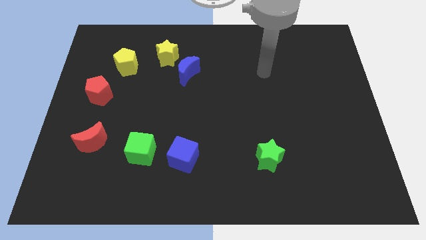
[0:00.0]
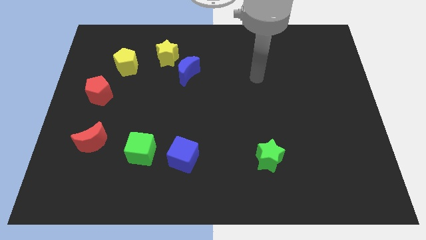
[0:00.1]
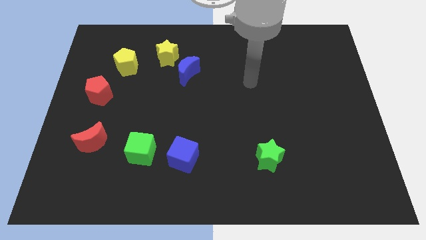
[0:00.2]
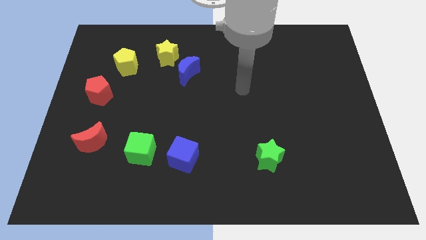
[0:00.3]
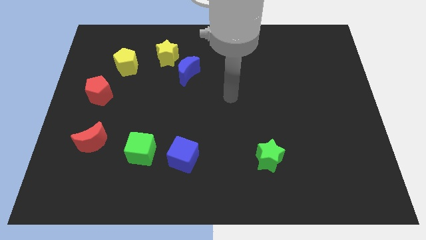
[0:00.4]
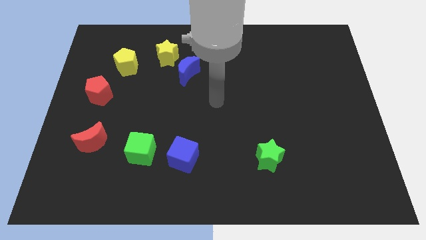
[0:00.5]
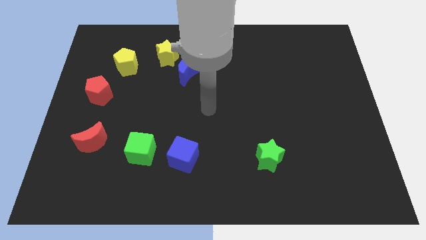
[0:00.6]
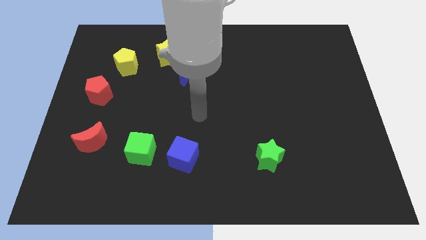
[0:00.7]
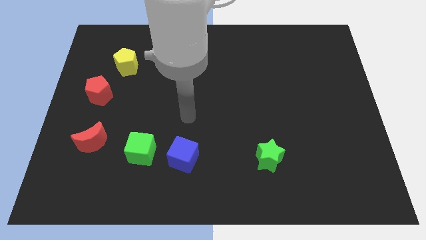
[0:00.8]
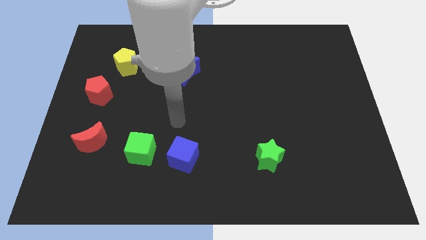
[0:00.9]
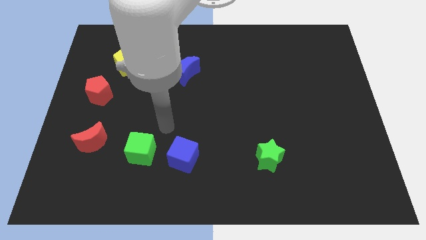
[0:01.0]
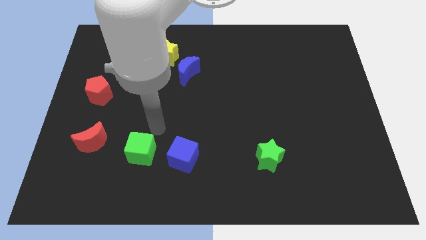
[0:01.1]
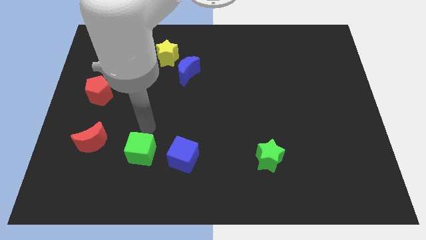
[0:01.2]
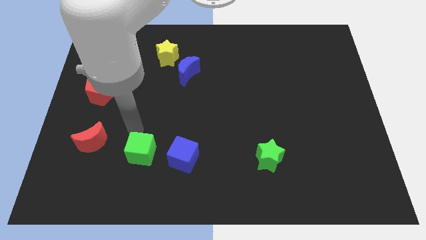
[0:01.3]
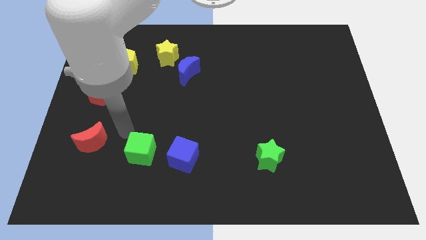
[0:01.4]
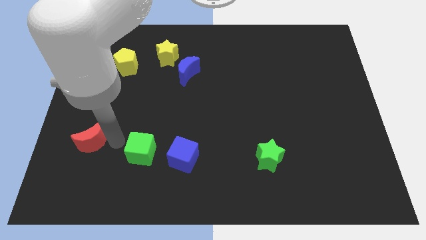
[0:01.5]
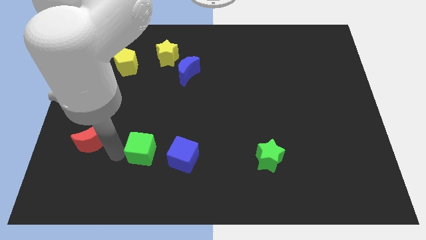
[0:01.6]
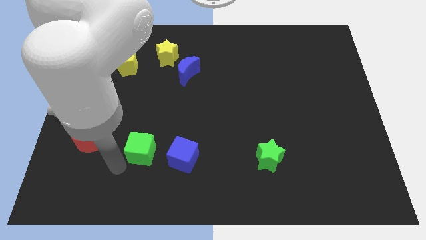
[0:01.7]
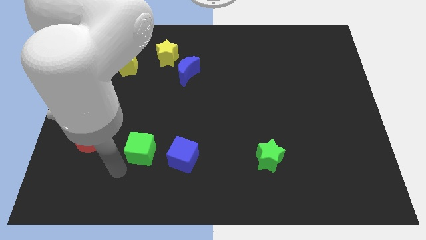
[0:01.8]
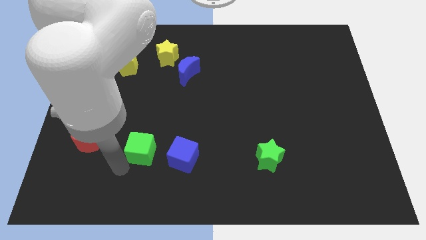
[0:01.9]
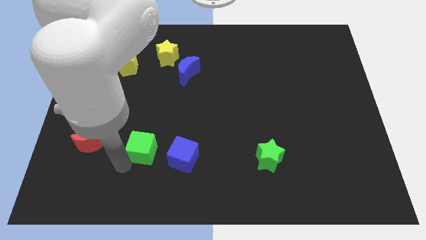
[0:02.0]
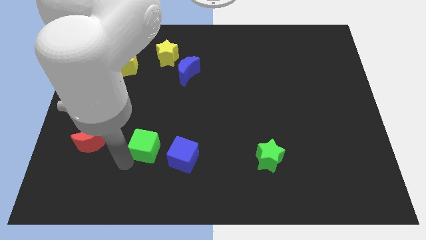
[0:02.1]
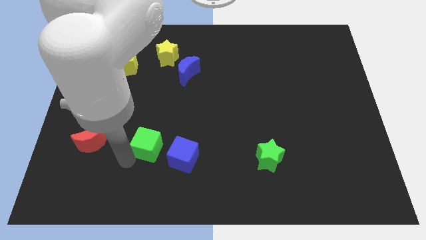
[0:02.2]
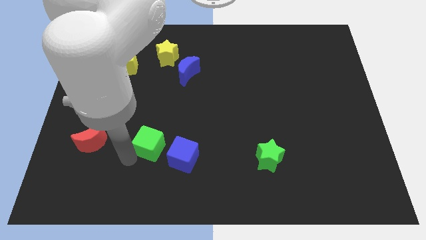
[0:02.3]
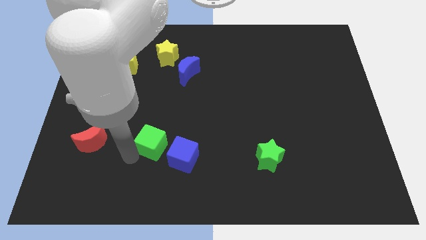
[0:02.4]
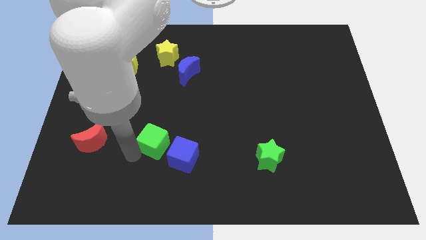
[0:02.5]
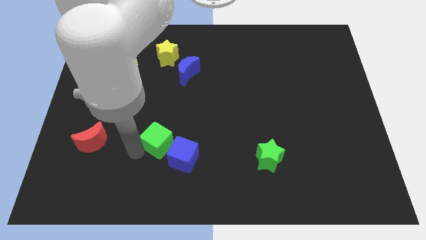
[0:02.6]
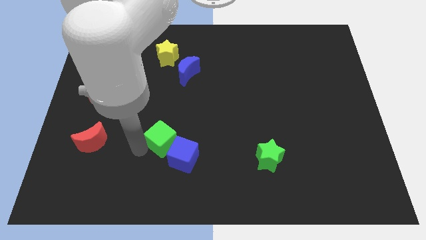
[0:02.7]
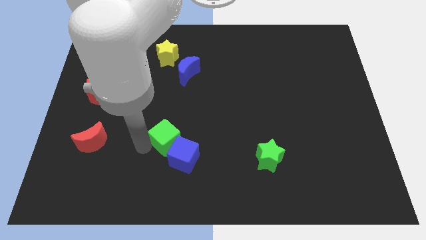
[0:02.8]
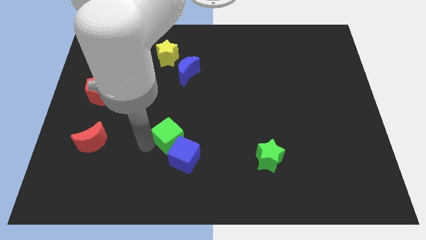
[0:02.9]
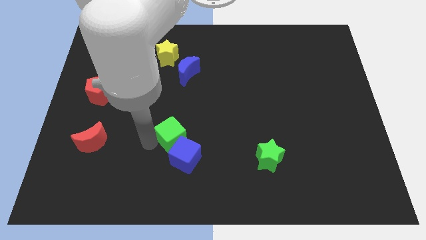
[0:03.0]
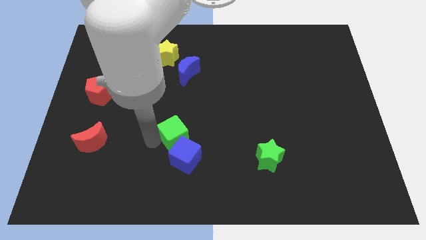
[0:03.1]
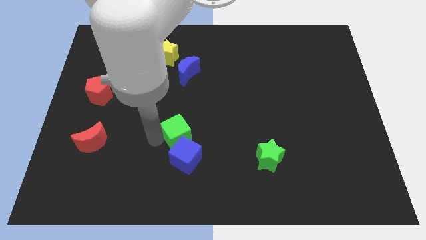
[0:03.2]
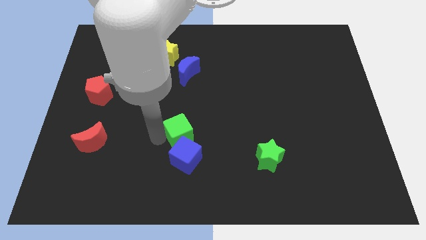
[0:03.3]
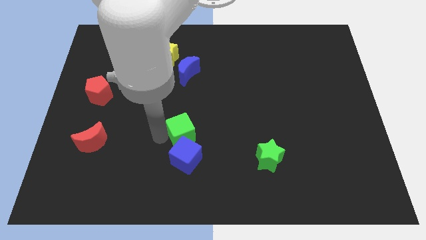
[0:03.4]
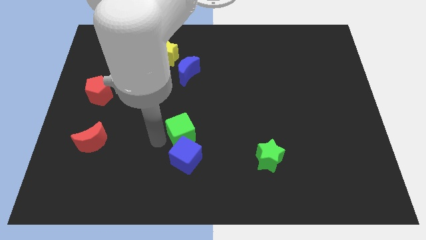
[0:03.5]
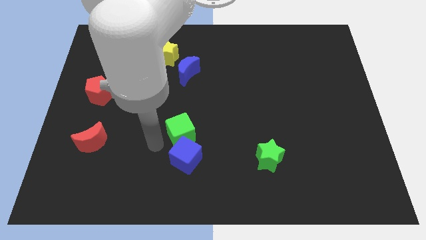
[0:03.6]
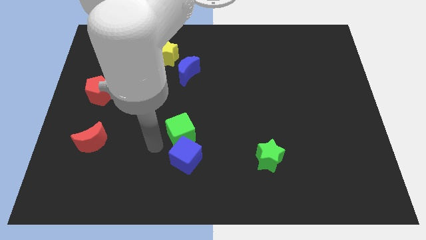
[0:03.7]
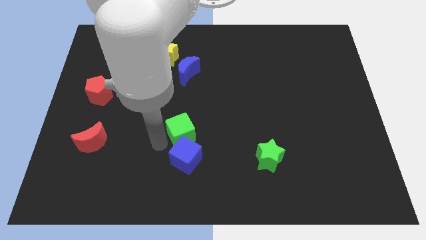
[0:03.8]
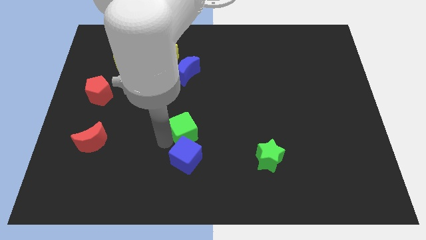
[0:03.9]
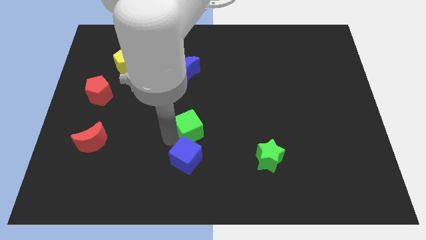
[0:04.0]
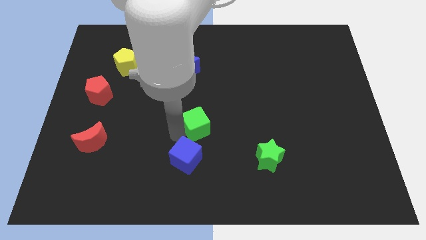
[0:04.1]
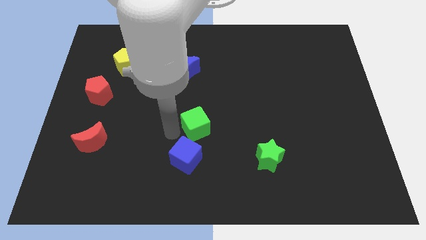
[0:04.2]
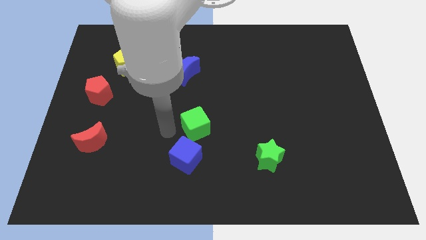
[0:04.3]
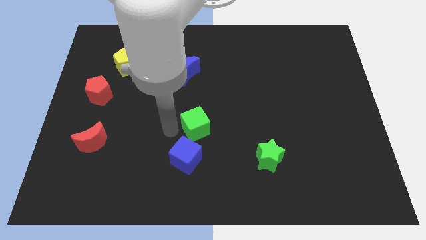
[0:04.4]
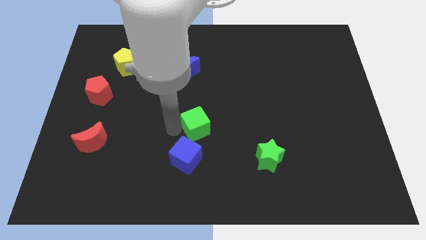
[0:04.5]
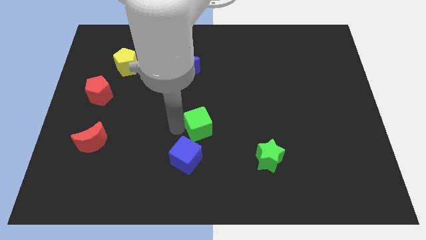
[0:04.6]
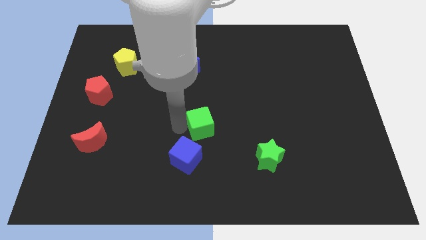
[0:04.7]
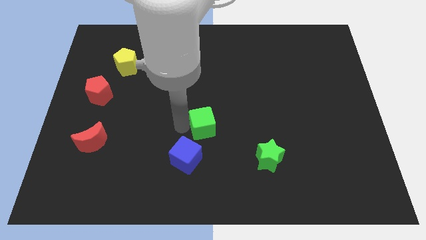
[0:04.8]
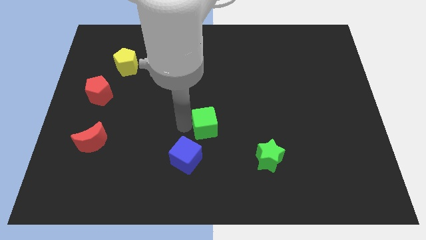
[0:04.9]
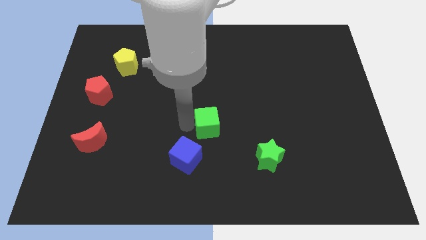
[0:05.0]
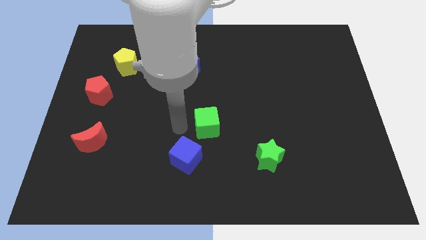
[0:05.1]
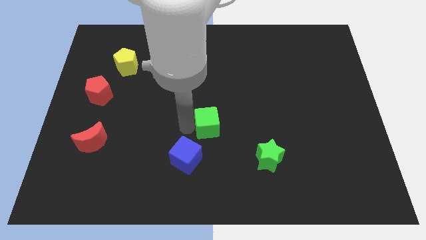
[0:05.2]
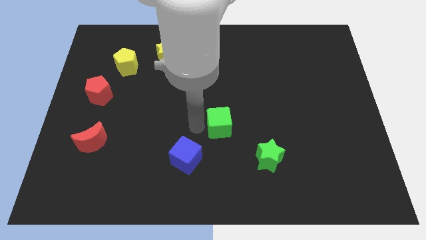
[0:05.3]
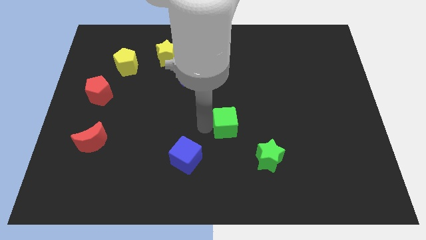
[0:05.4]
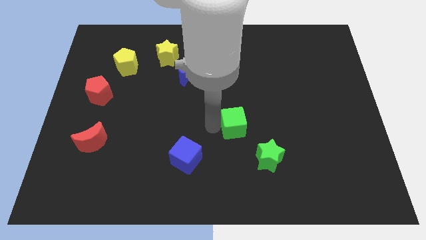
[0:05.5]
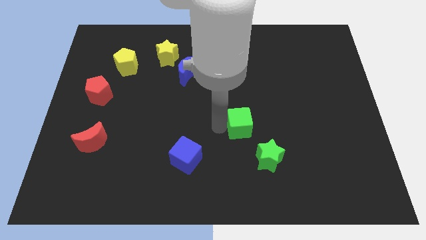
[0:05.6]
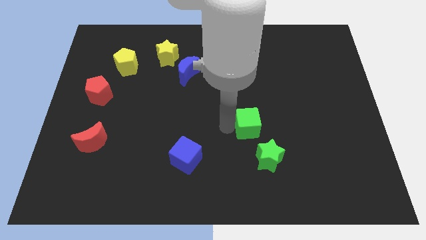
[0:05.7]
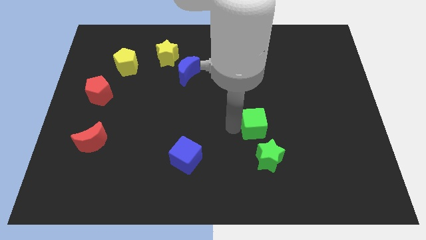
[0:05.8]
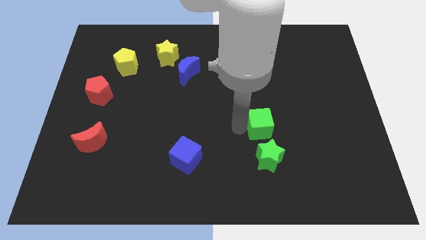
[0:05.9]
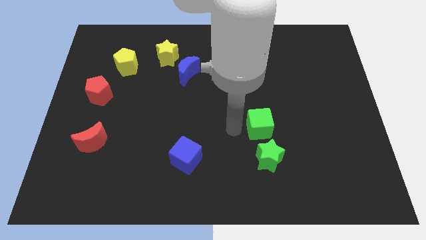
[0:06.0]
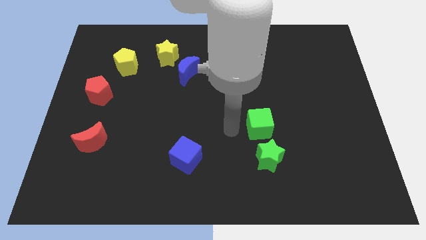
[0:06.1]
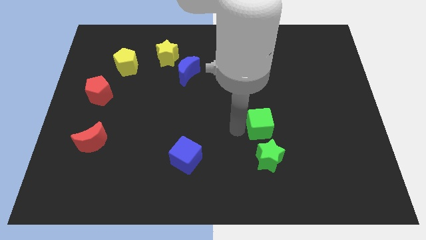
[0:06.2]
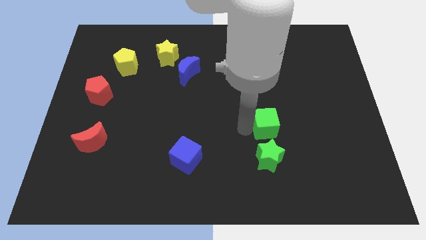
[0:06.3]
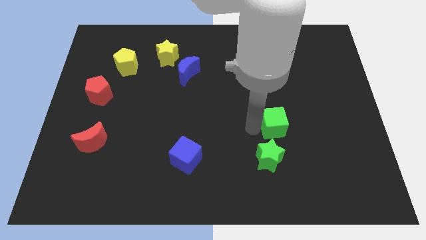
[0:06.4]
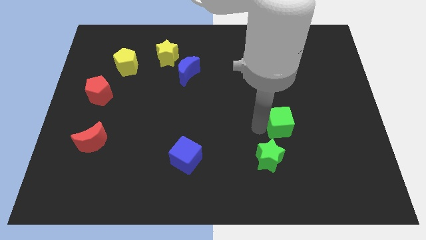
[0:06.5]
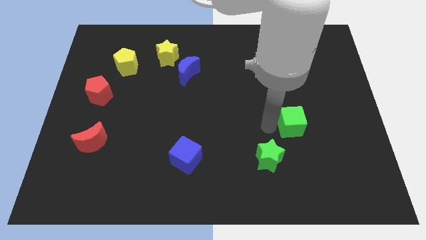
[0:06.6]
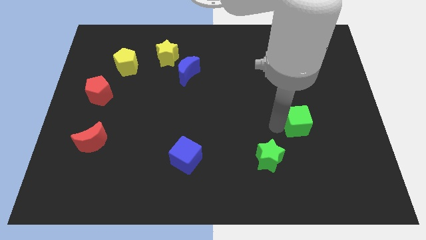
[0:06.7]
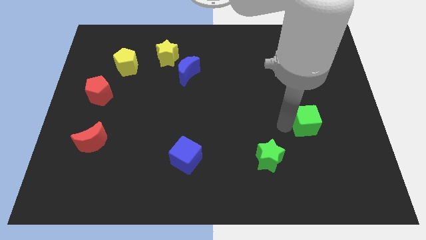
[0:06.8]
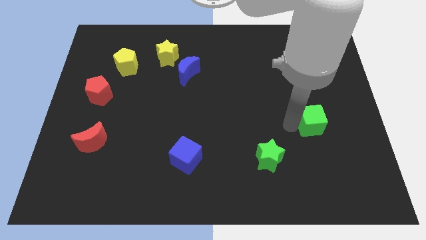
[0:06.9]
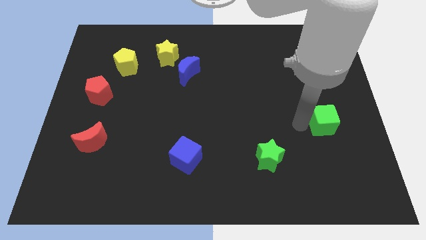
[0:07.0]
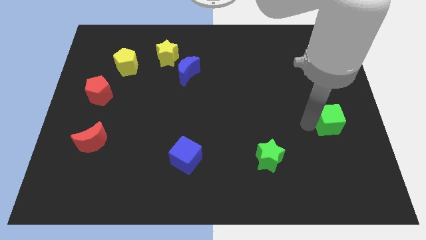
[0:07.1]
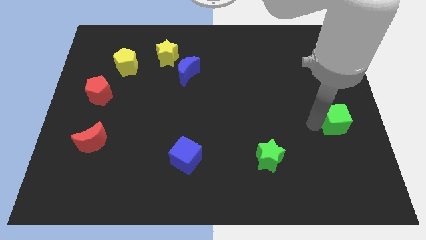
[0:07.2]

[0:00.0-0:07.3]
move the green cube to the center right
